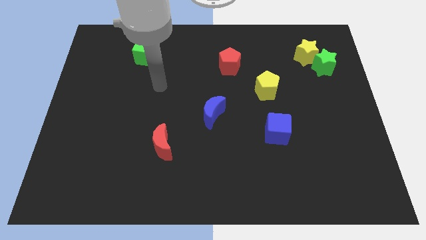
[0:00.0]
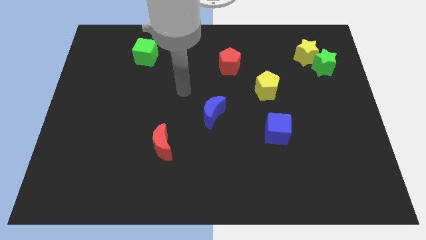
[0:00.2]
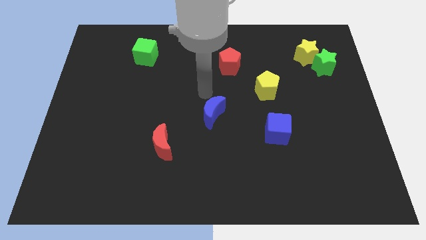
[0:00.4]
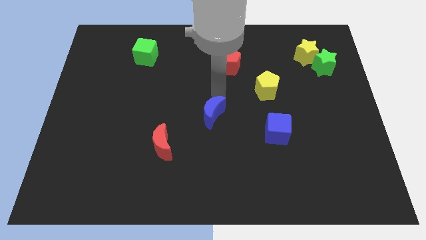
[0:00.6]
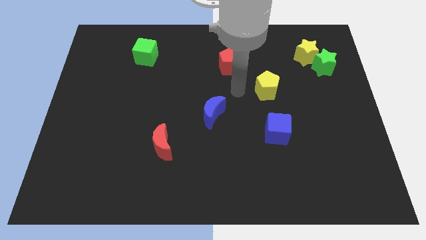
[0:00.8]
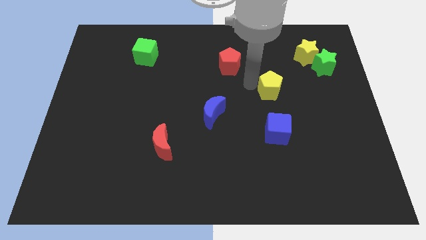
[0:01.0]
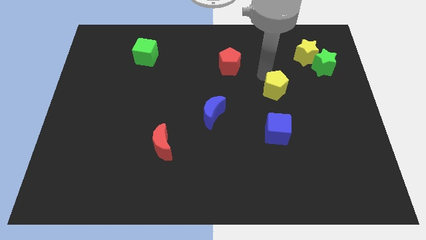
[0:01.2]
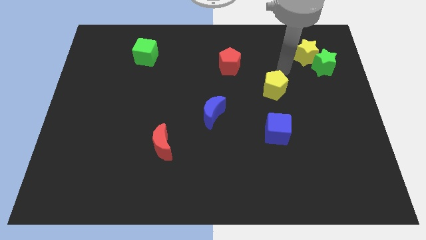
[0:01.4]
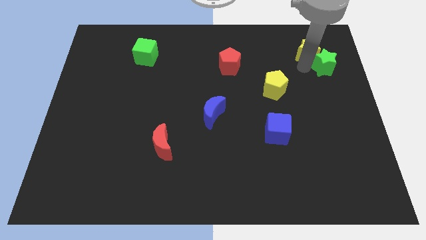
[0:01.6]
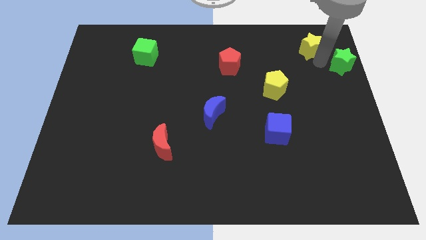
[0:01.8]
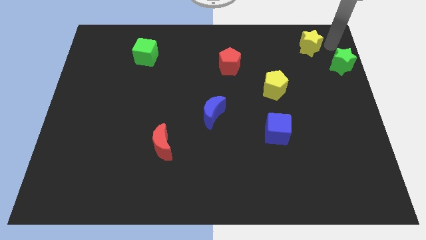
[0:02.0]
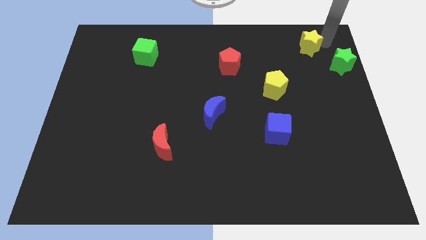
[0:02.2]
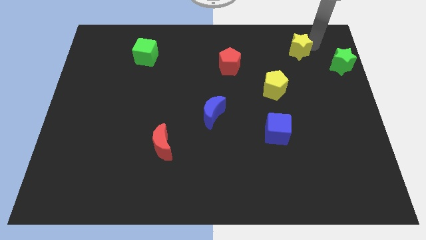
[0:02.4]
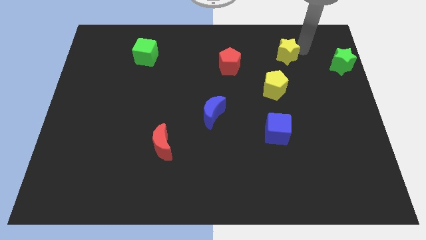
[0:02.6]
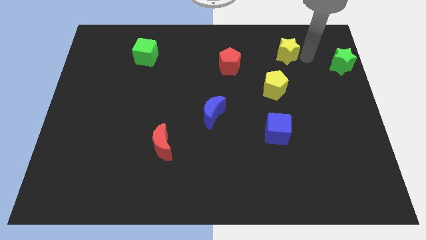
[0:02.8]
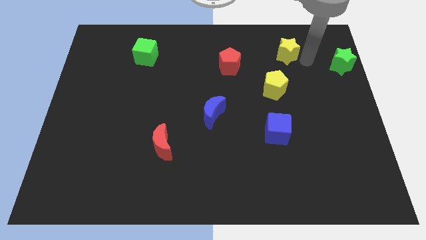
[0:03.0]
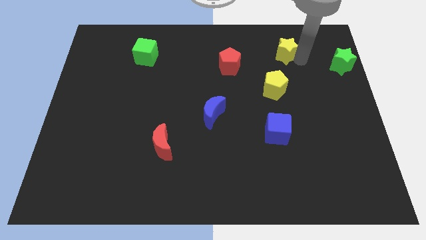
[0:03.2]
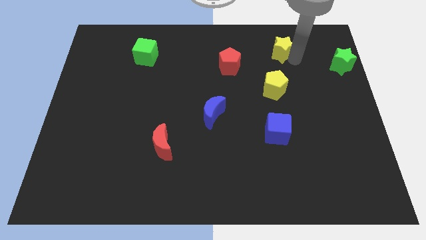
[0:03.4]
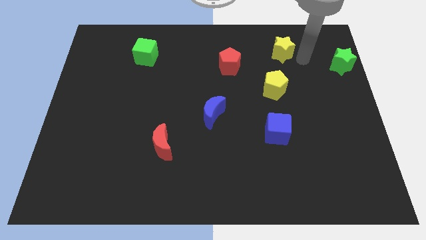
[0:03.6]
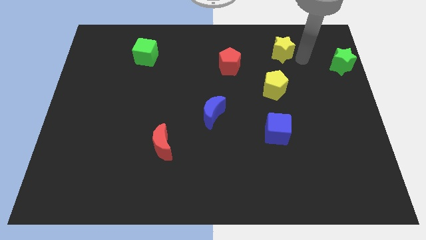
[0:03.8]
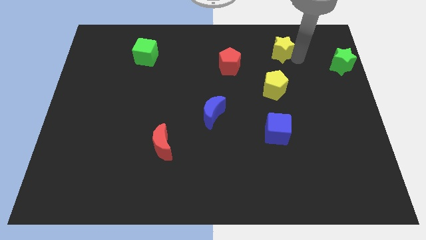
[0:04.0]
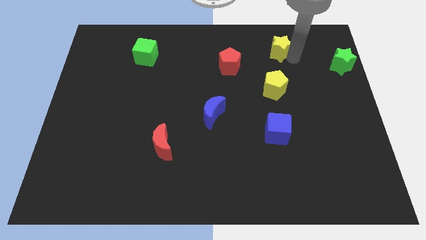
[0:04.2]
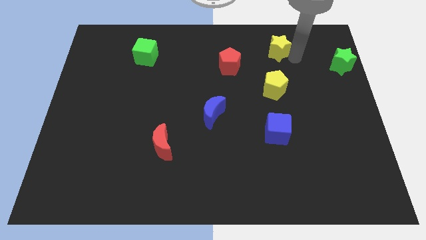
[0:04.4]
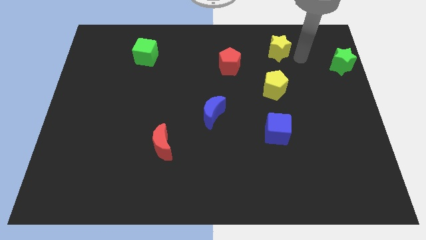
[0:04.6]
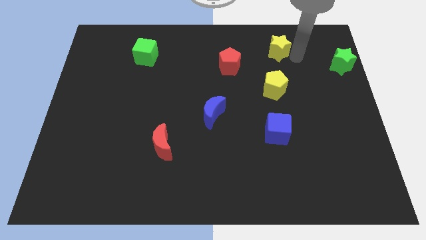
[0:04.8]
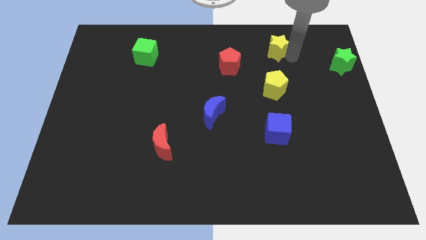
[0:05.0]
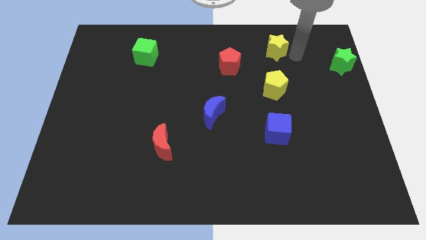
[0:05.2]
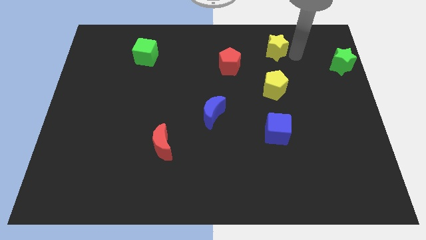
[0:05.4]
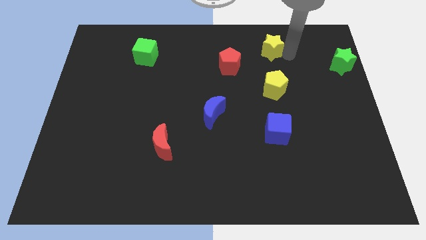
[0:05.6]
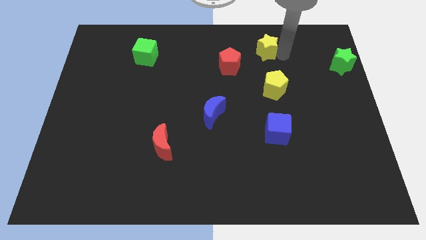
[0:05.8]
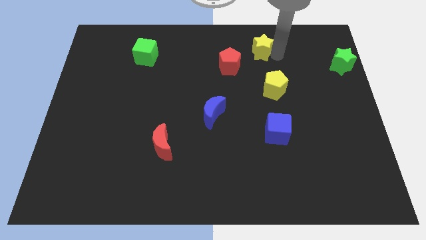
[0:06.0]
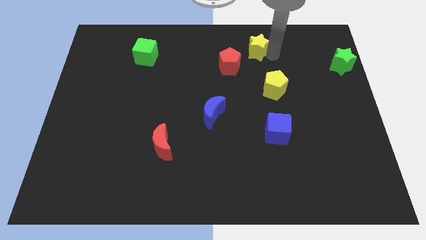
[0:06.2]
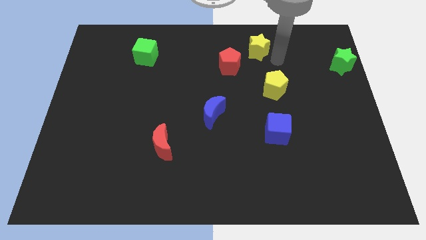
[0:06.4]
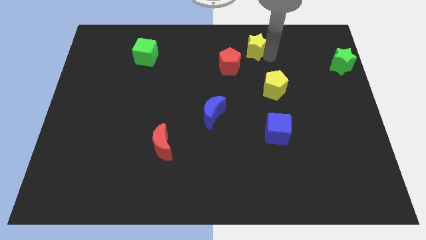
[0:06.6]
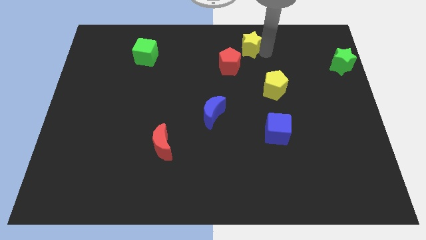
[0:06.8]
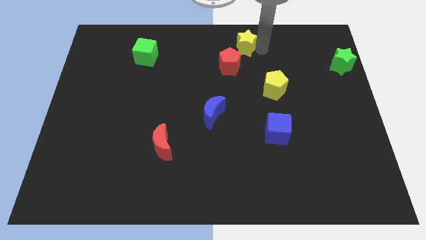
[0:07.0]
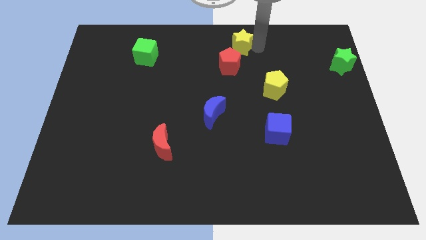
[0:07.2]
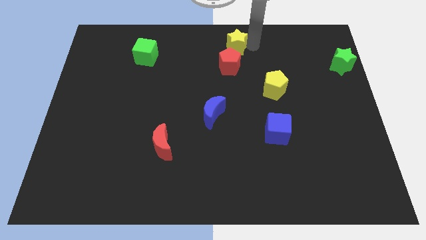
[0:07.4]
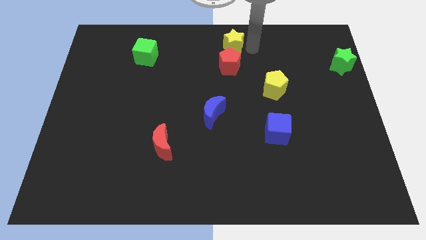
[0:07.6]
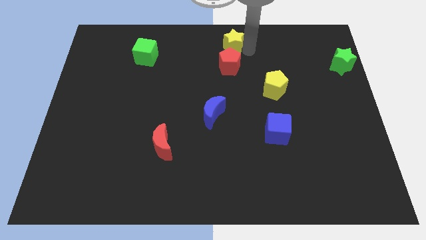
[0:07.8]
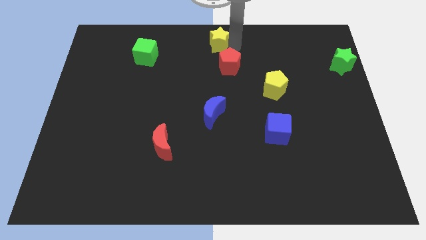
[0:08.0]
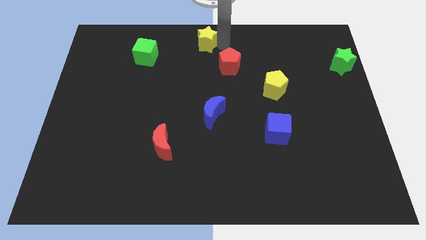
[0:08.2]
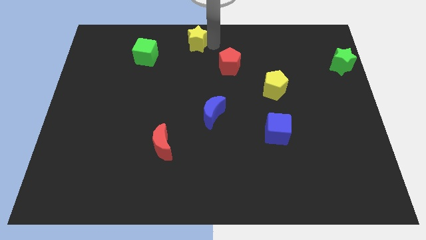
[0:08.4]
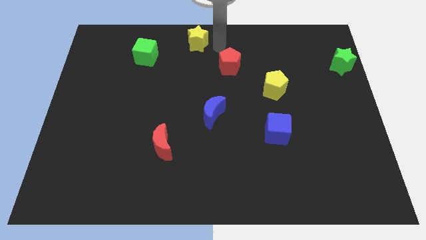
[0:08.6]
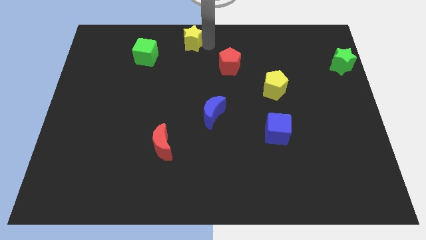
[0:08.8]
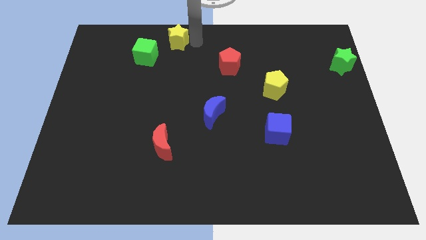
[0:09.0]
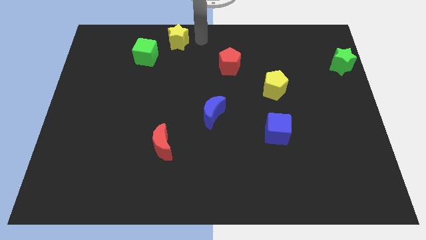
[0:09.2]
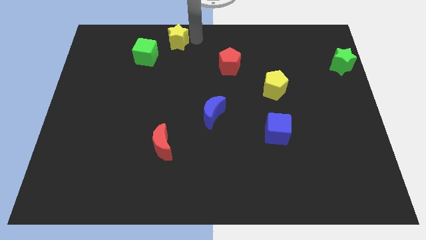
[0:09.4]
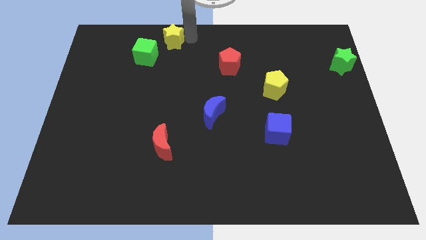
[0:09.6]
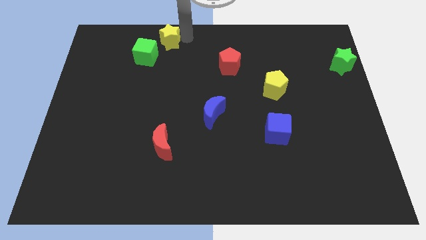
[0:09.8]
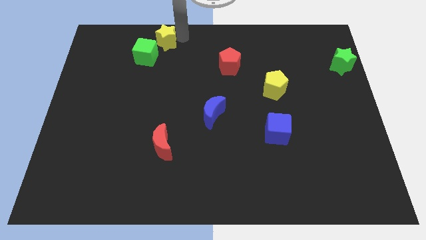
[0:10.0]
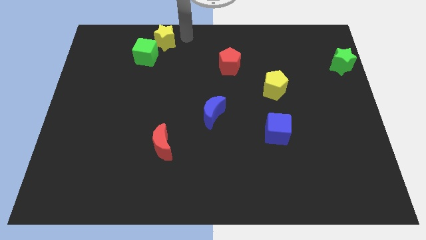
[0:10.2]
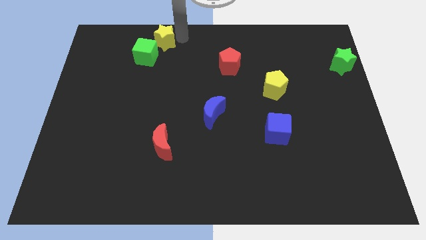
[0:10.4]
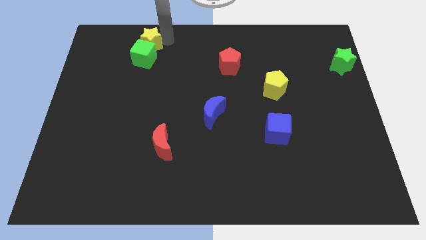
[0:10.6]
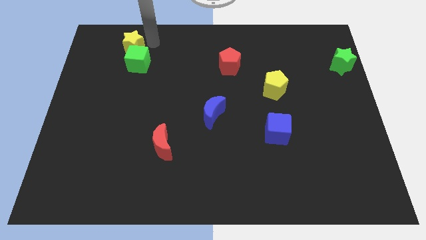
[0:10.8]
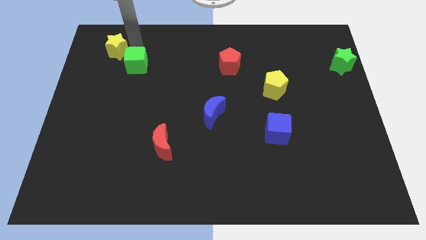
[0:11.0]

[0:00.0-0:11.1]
slide the yellow star to the left of the green cube

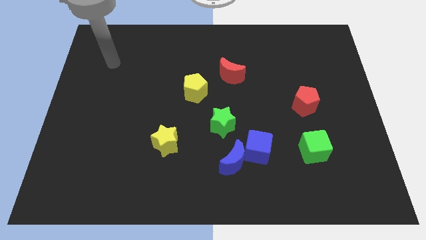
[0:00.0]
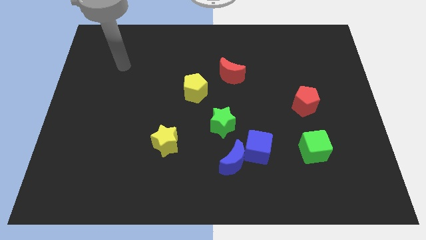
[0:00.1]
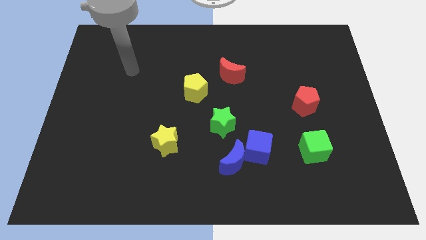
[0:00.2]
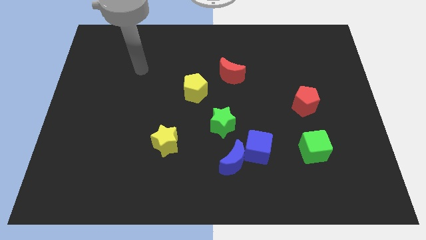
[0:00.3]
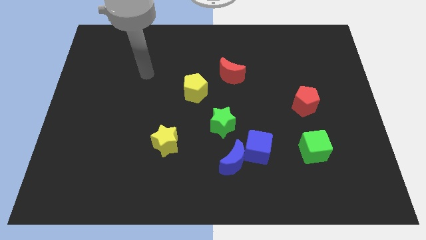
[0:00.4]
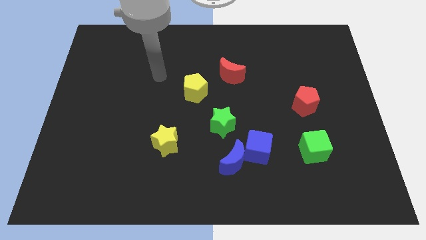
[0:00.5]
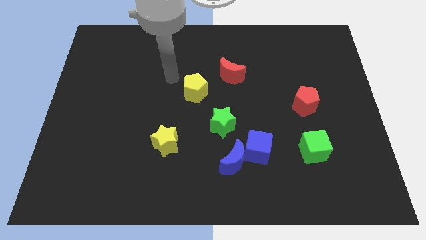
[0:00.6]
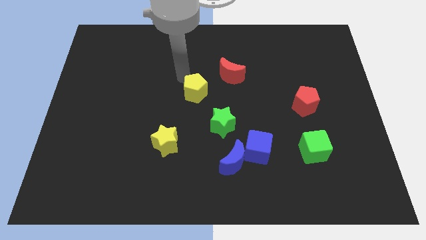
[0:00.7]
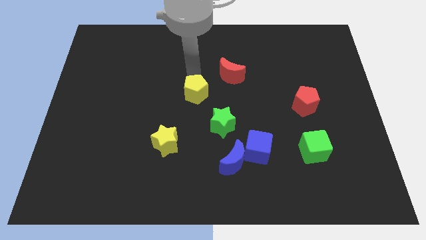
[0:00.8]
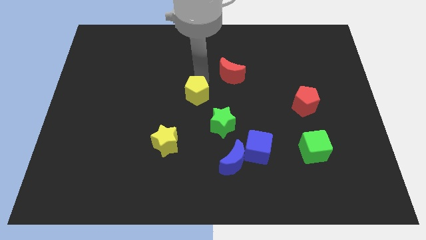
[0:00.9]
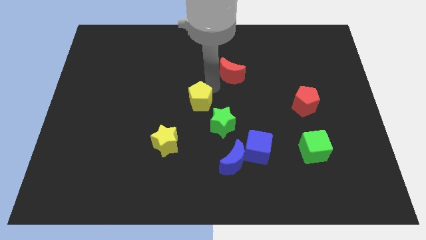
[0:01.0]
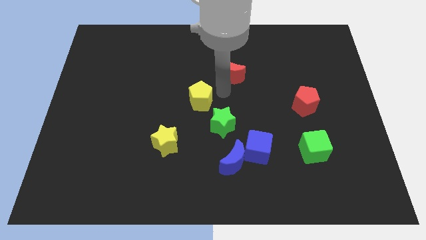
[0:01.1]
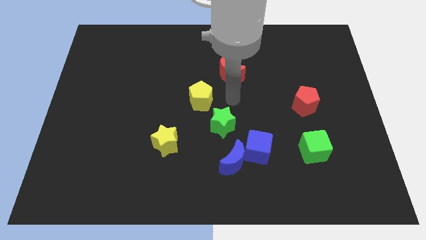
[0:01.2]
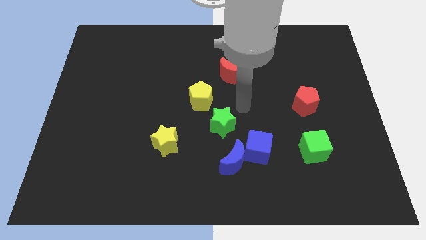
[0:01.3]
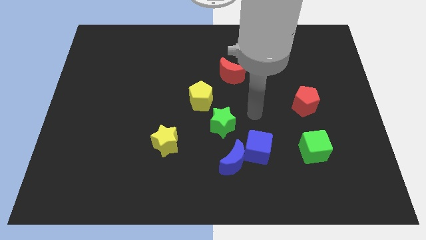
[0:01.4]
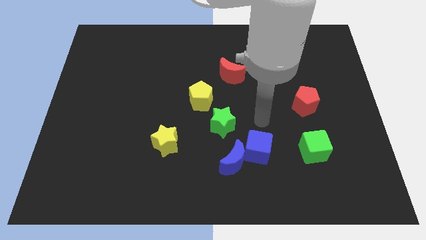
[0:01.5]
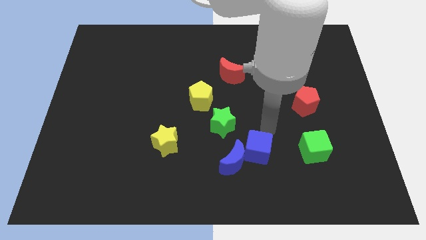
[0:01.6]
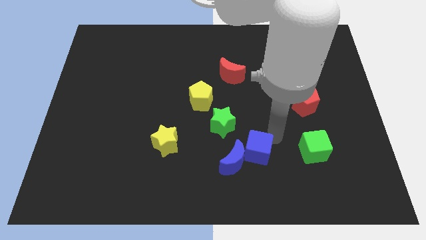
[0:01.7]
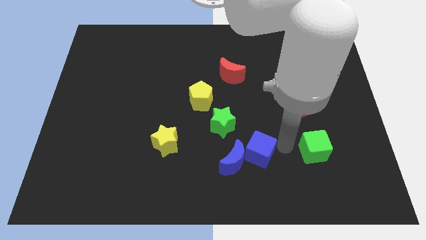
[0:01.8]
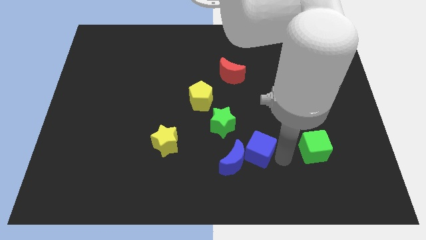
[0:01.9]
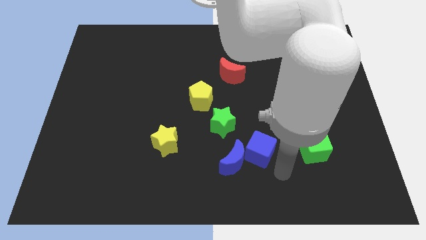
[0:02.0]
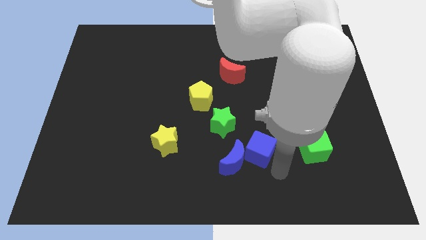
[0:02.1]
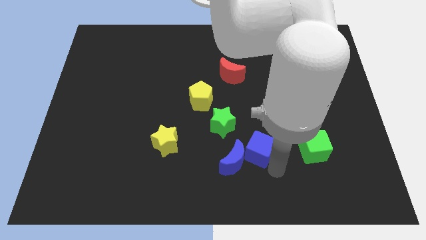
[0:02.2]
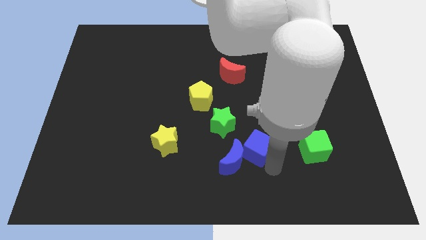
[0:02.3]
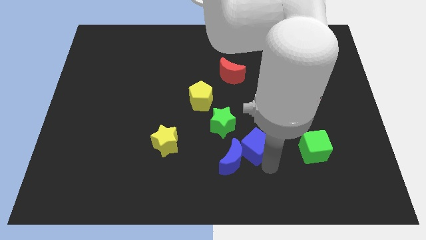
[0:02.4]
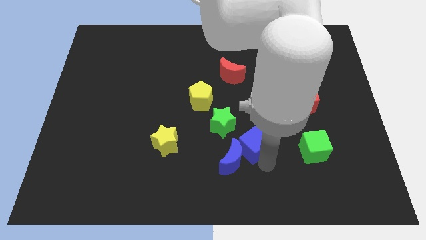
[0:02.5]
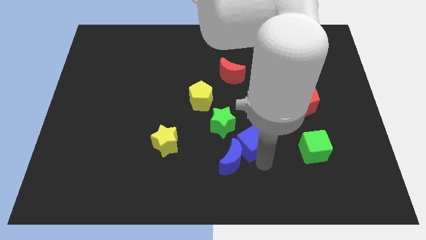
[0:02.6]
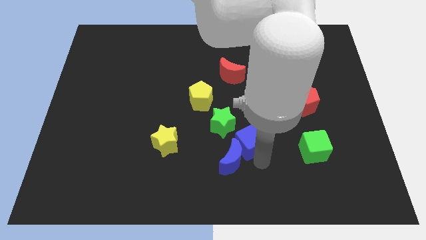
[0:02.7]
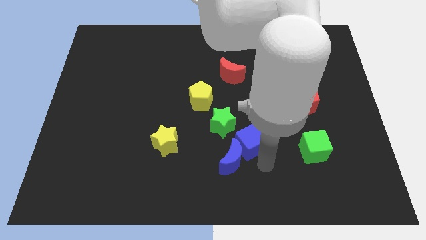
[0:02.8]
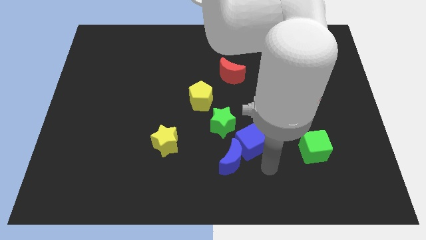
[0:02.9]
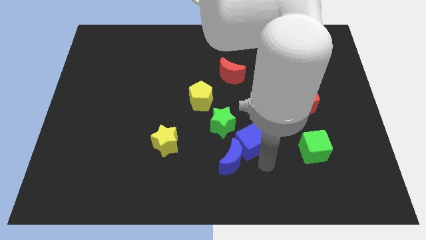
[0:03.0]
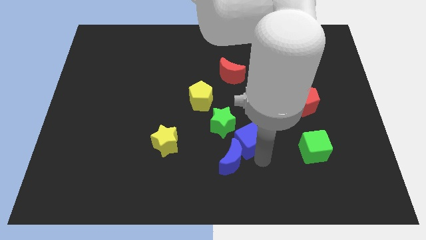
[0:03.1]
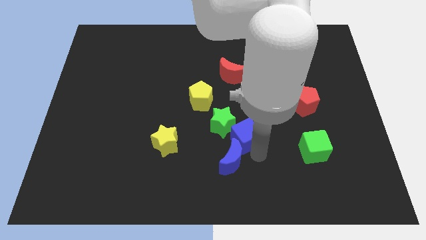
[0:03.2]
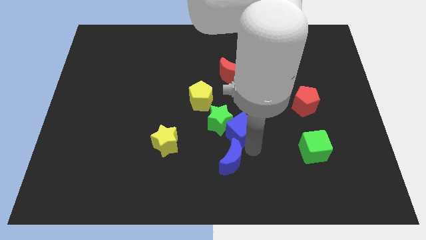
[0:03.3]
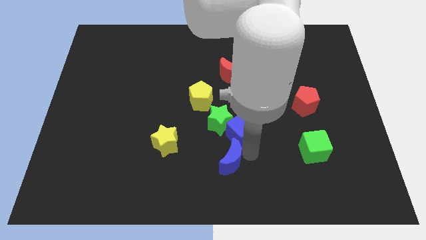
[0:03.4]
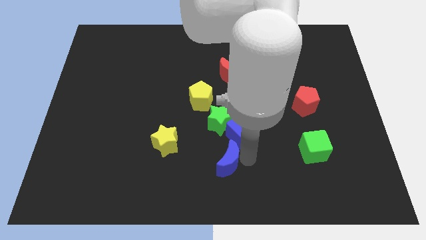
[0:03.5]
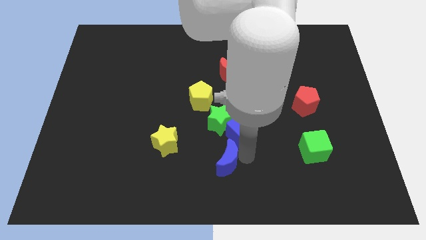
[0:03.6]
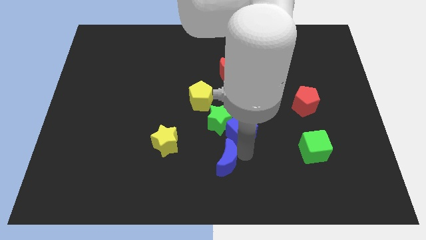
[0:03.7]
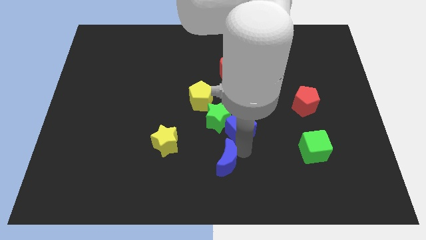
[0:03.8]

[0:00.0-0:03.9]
move the blue cube to the bottom right side of the yellow pentagon
